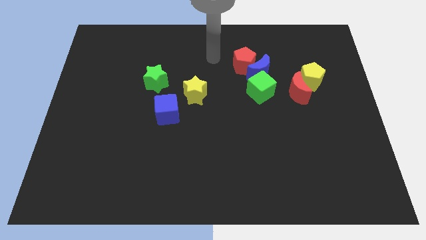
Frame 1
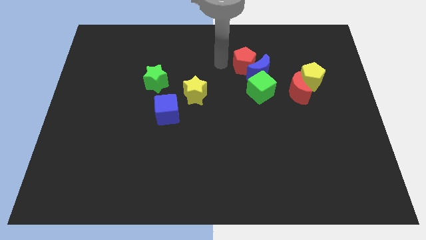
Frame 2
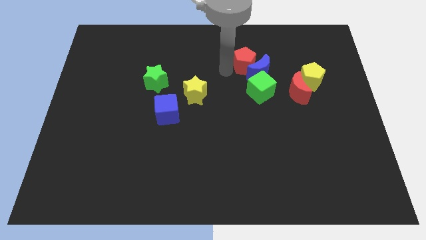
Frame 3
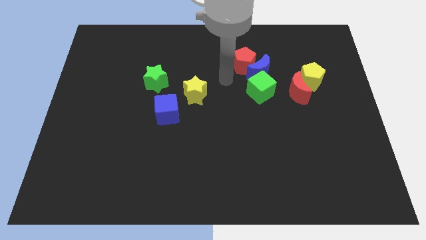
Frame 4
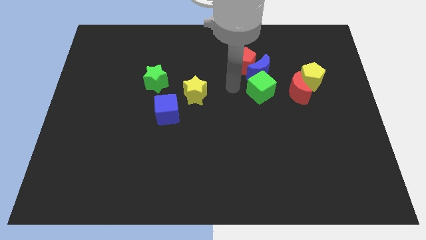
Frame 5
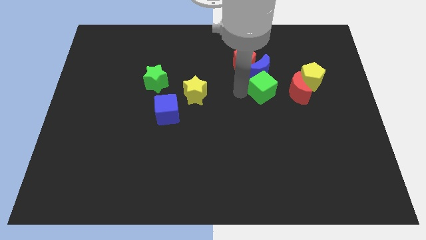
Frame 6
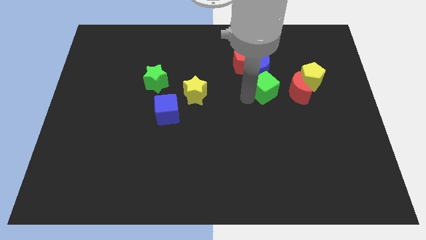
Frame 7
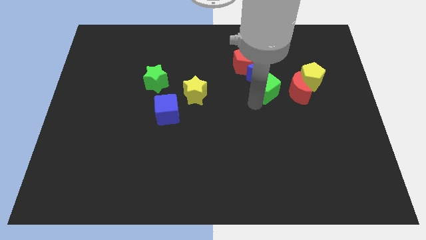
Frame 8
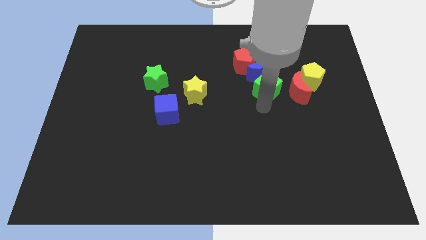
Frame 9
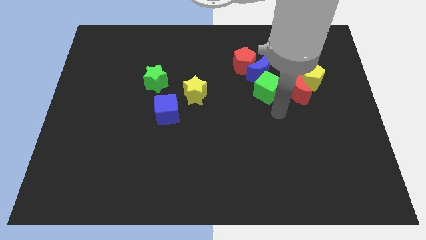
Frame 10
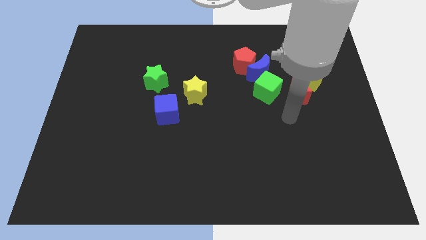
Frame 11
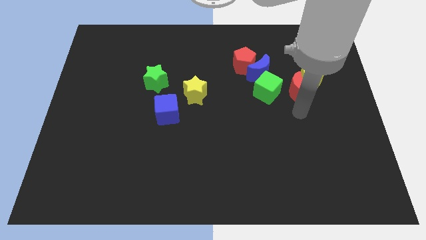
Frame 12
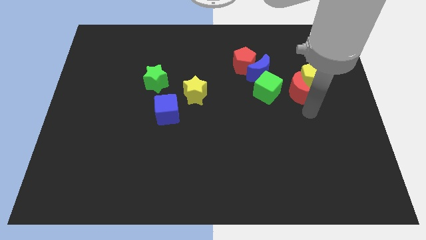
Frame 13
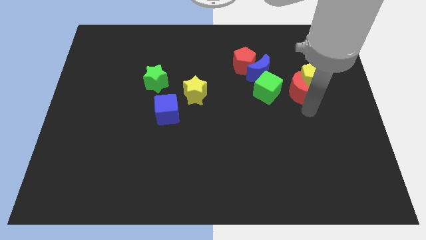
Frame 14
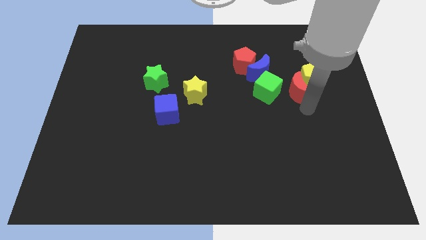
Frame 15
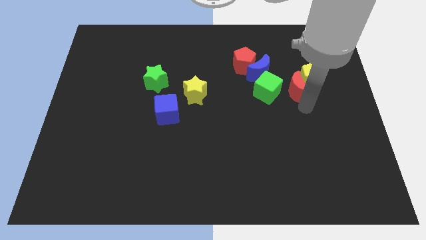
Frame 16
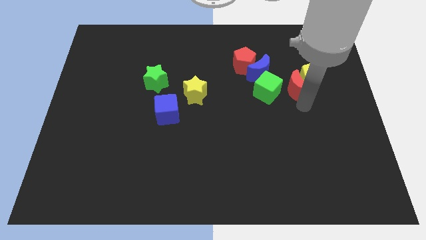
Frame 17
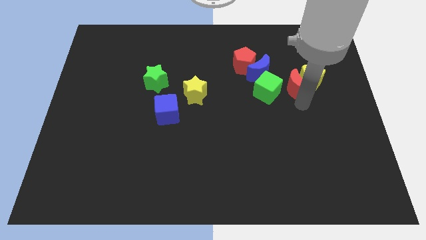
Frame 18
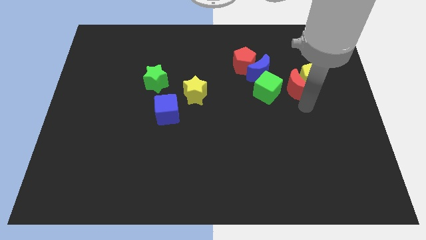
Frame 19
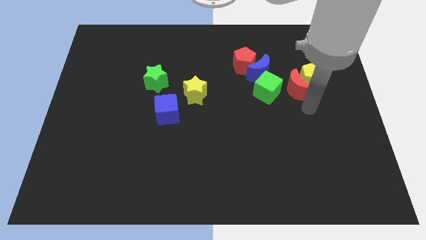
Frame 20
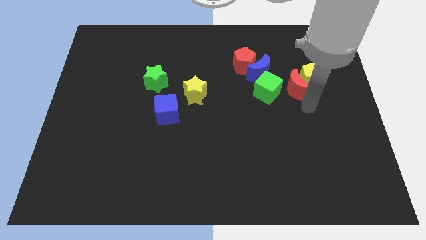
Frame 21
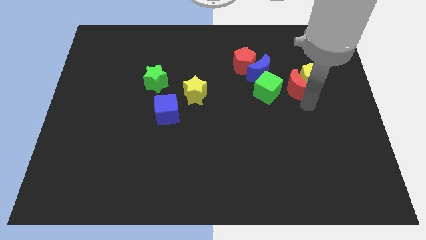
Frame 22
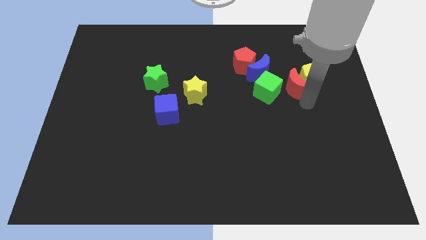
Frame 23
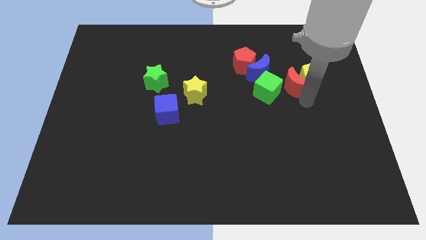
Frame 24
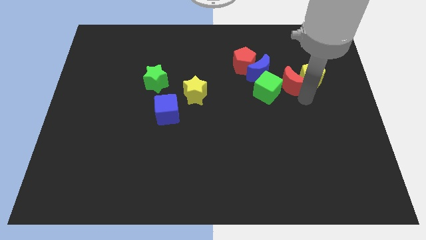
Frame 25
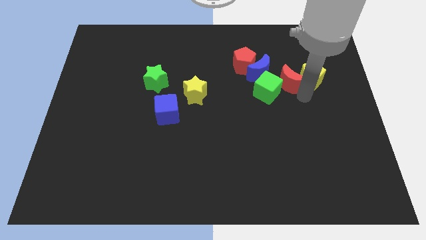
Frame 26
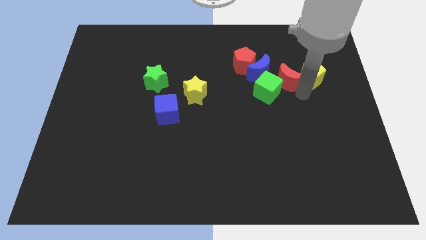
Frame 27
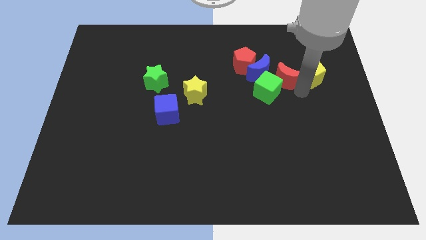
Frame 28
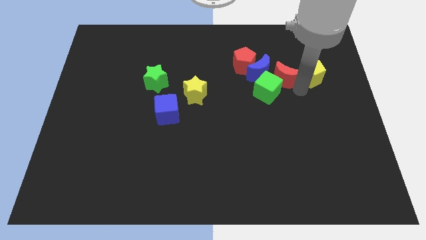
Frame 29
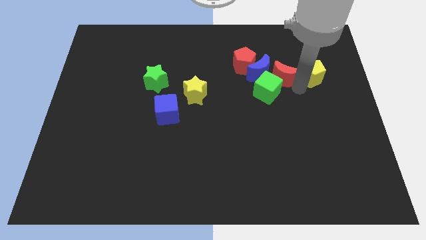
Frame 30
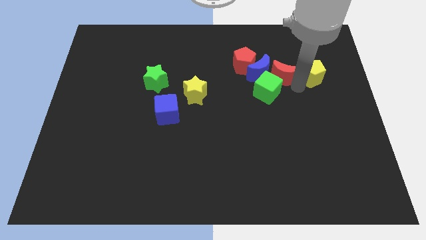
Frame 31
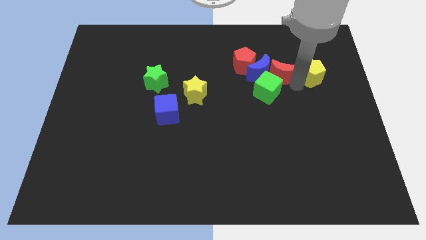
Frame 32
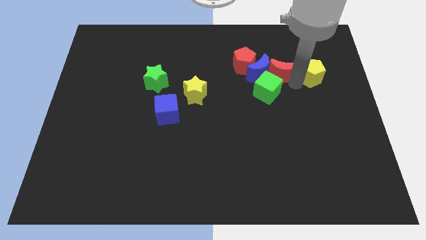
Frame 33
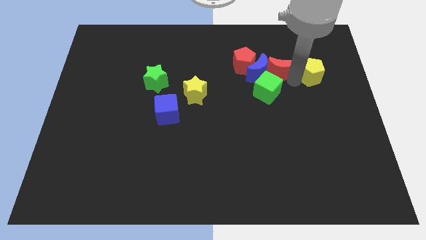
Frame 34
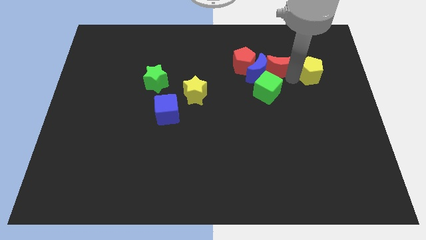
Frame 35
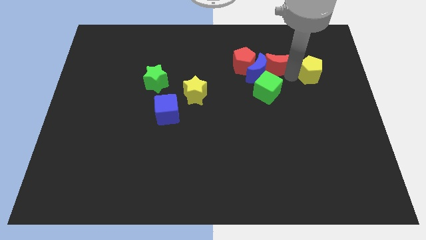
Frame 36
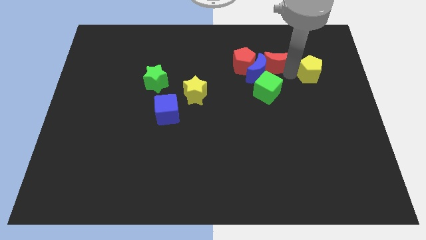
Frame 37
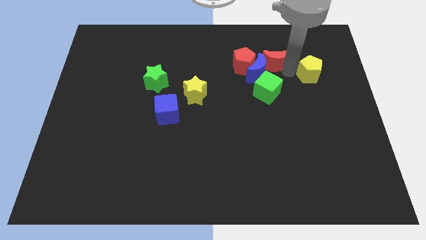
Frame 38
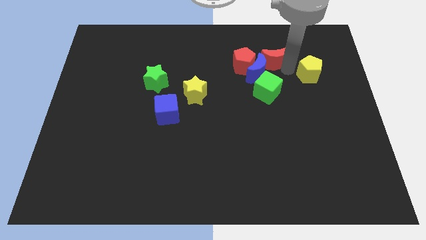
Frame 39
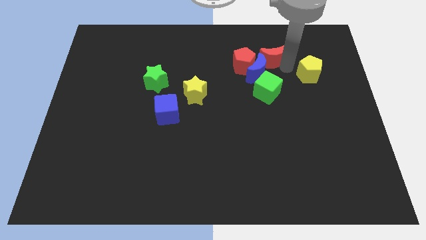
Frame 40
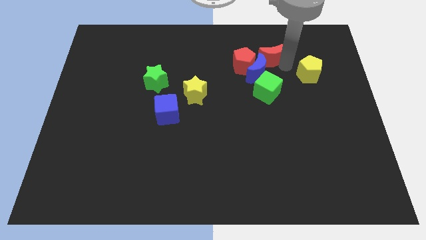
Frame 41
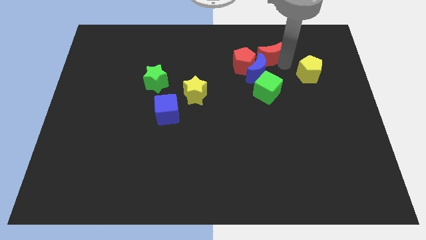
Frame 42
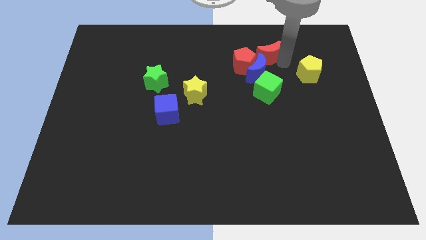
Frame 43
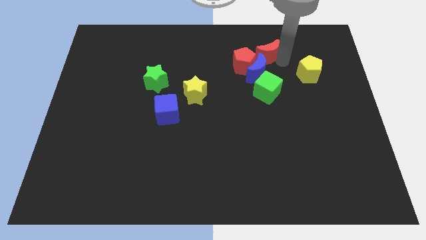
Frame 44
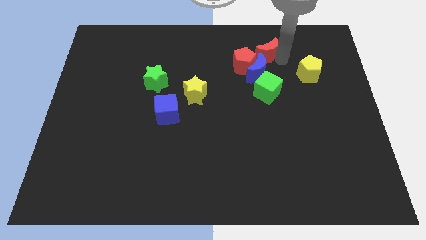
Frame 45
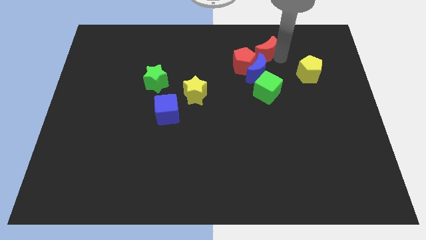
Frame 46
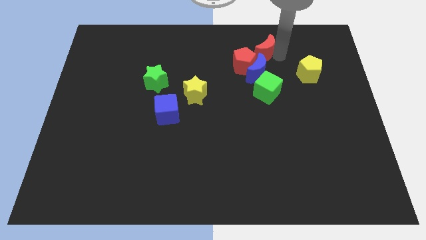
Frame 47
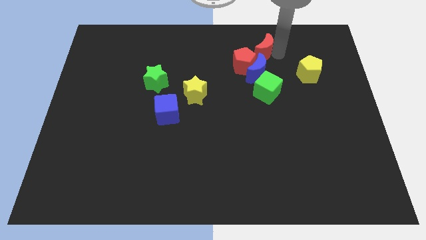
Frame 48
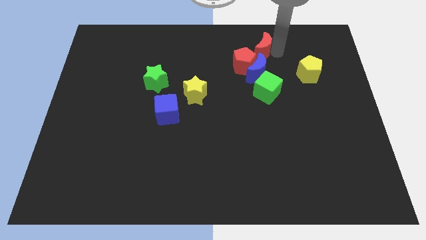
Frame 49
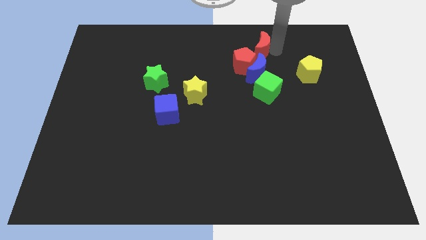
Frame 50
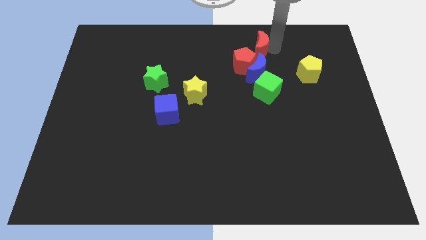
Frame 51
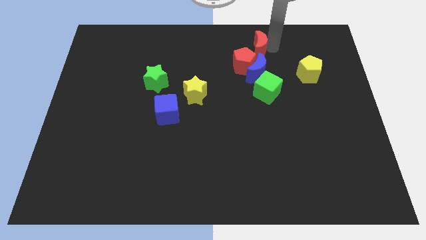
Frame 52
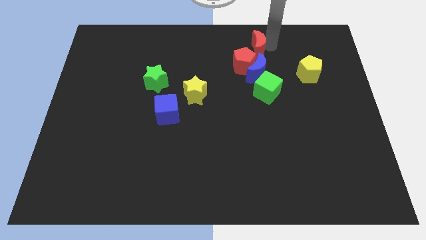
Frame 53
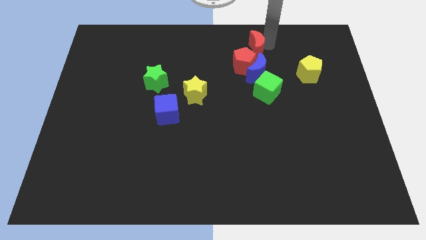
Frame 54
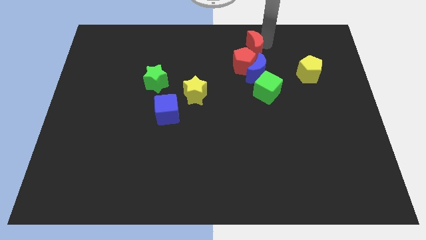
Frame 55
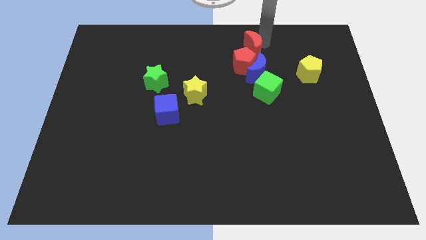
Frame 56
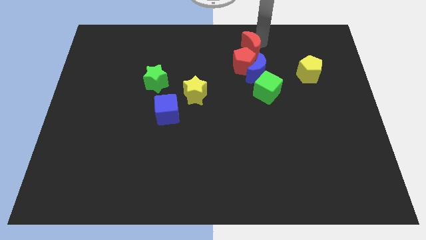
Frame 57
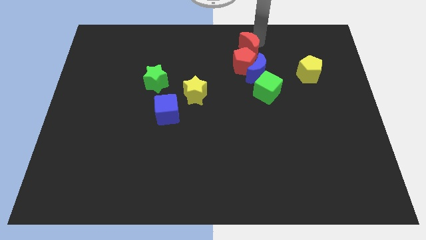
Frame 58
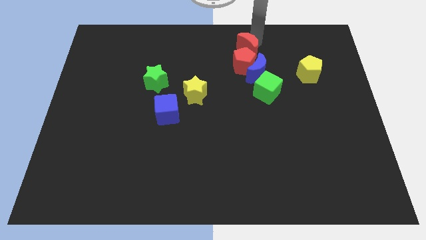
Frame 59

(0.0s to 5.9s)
push the red moon towards the red pentagon

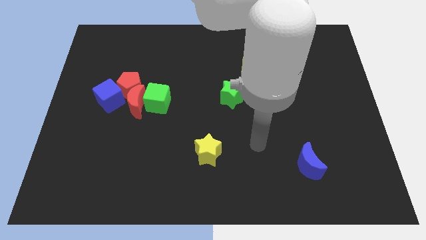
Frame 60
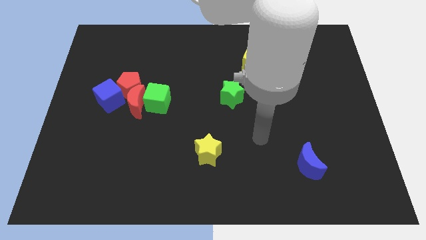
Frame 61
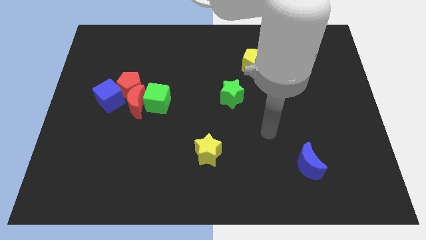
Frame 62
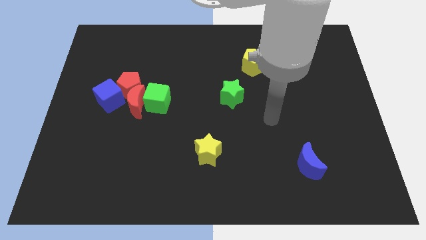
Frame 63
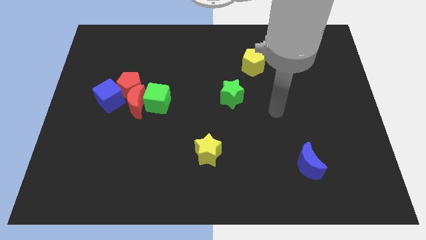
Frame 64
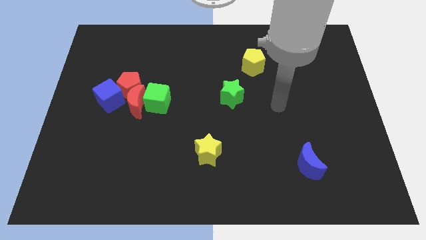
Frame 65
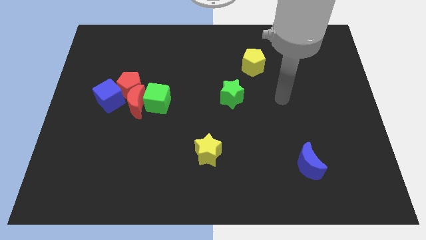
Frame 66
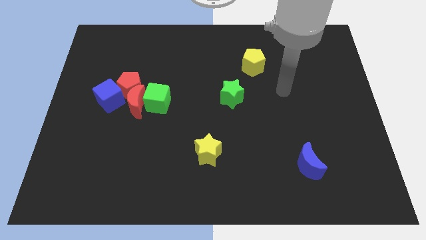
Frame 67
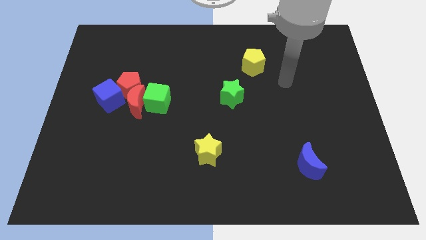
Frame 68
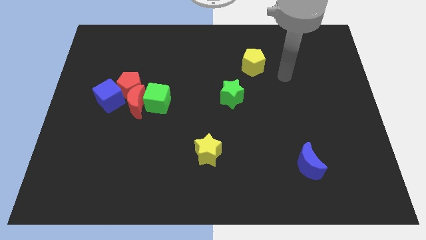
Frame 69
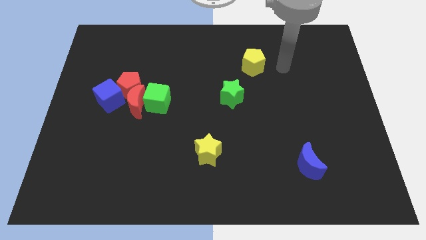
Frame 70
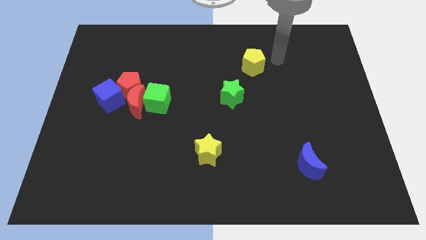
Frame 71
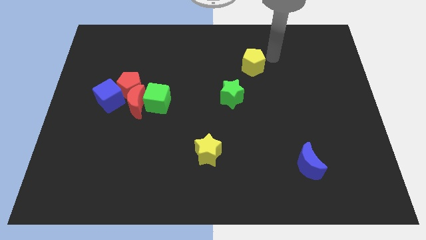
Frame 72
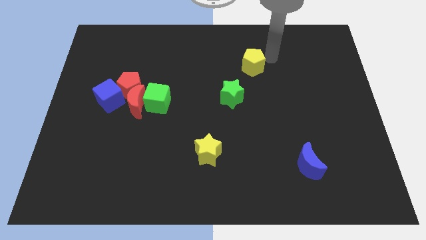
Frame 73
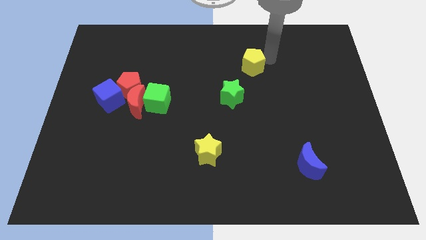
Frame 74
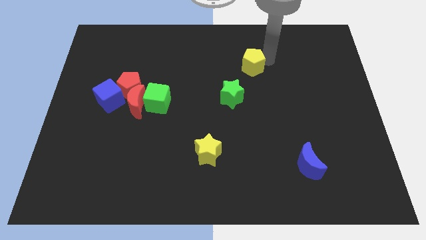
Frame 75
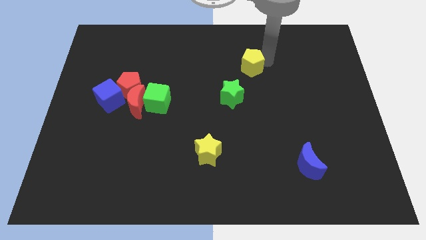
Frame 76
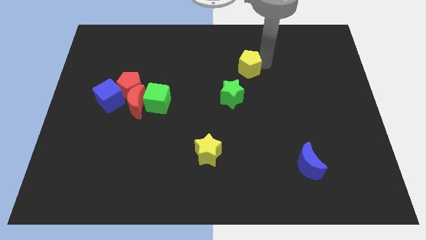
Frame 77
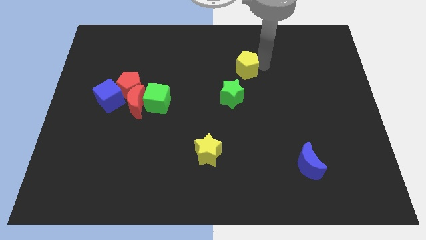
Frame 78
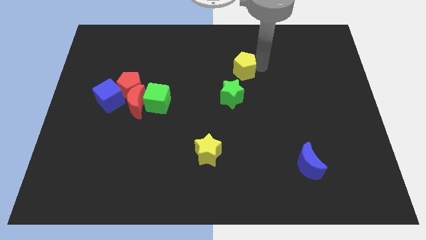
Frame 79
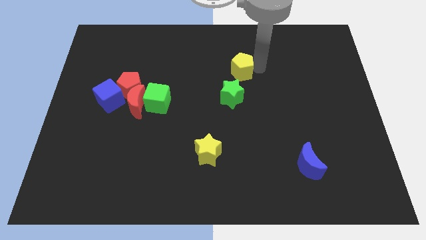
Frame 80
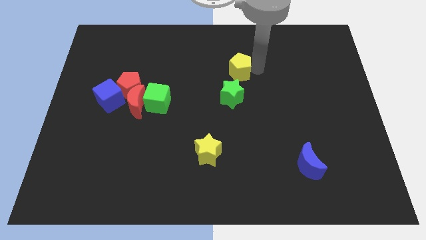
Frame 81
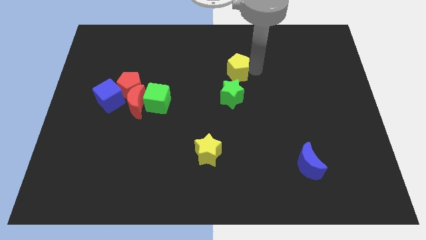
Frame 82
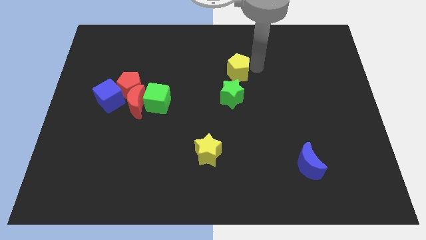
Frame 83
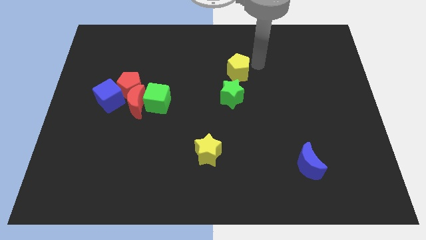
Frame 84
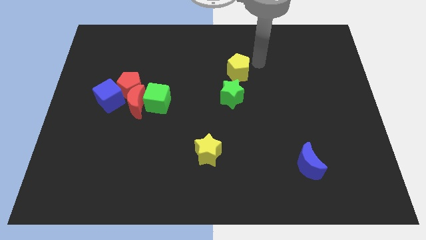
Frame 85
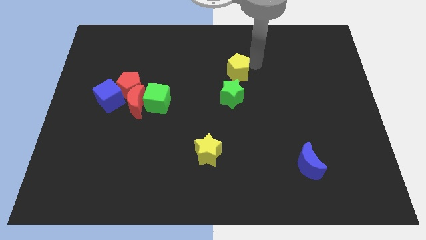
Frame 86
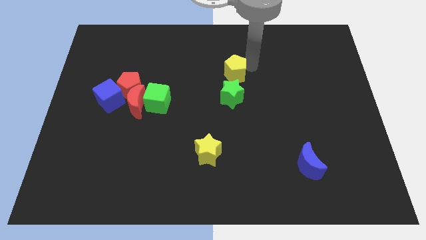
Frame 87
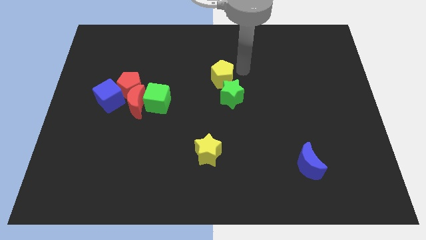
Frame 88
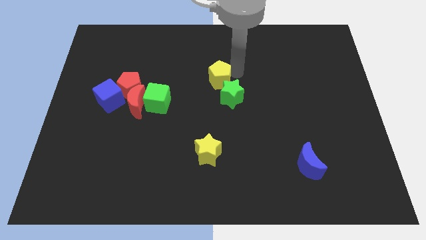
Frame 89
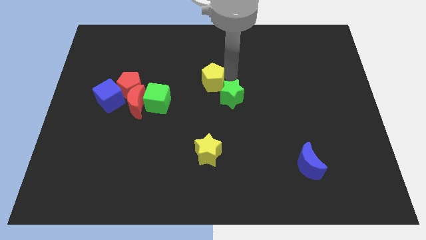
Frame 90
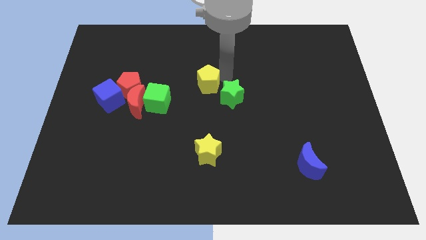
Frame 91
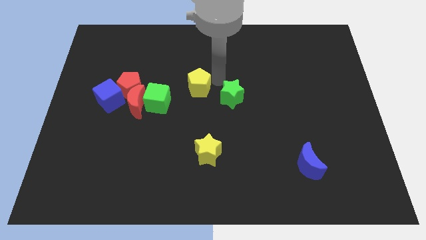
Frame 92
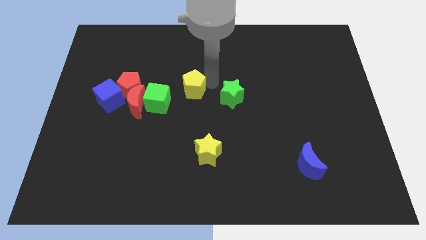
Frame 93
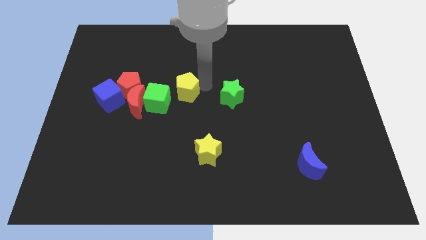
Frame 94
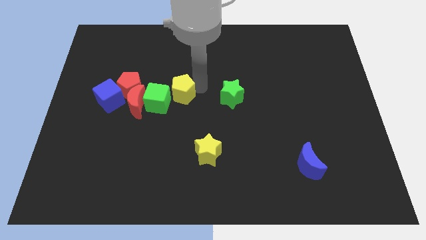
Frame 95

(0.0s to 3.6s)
put the yellow pentagon next to the green cube
